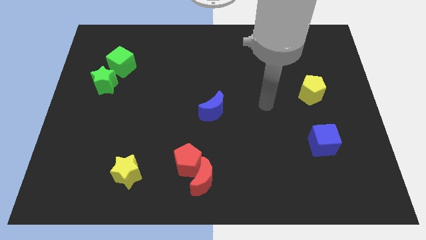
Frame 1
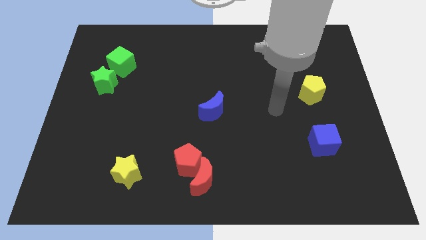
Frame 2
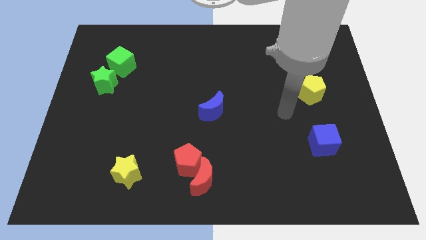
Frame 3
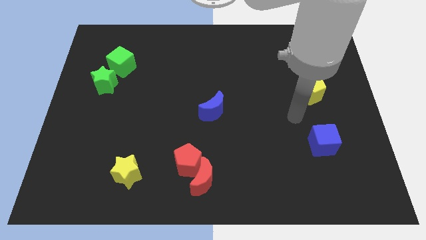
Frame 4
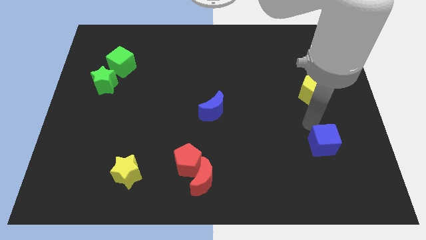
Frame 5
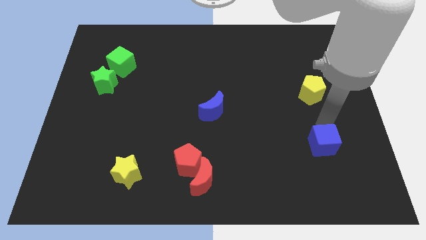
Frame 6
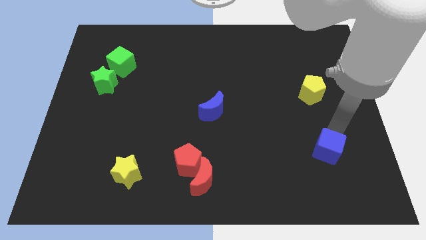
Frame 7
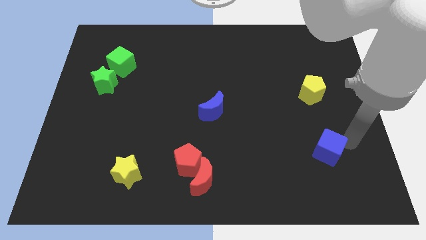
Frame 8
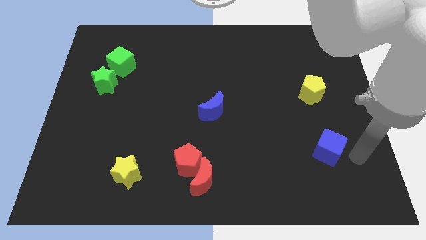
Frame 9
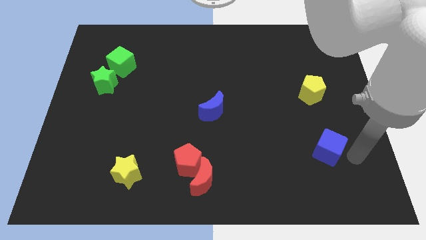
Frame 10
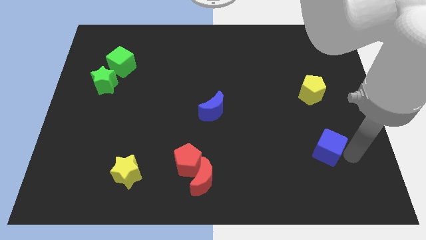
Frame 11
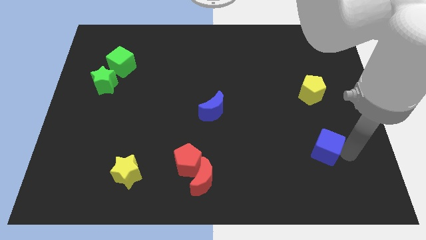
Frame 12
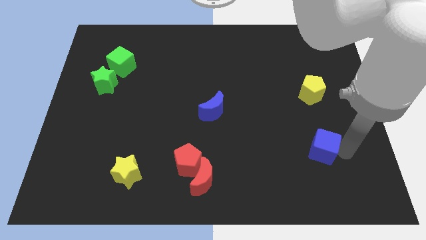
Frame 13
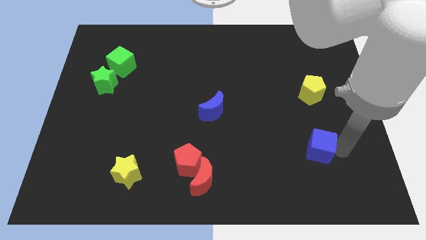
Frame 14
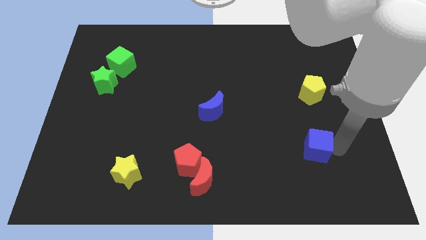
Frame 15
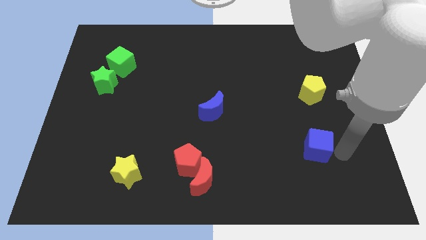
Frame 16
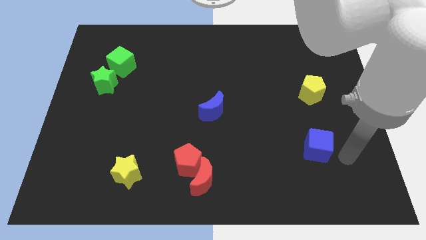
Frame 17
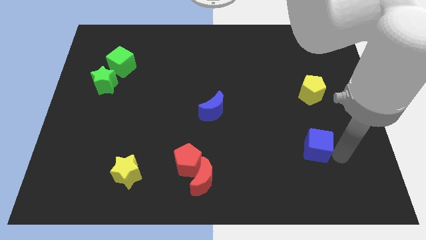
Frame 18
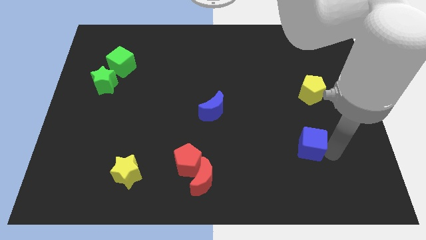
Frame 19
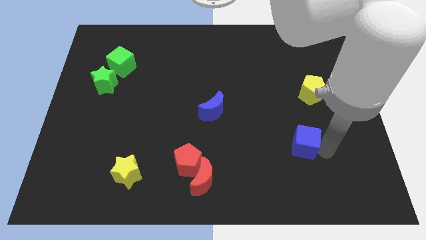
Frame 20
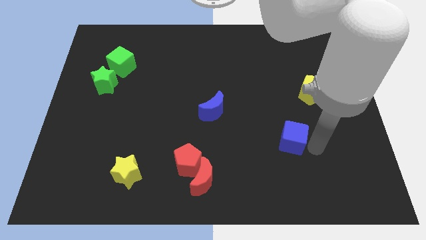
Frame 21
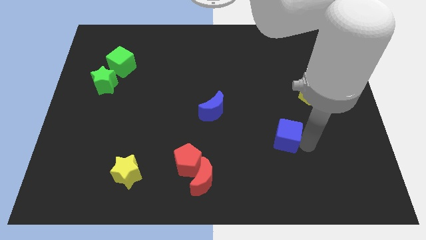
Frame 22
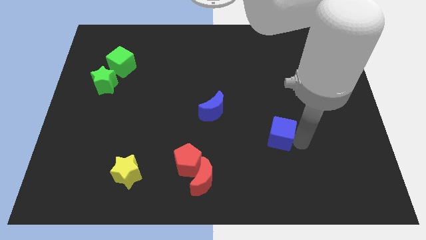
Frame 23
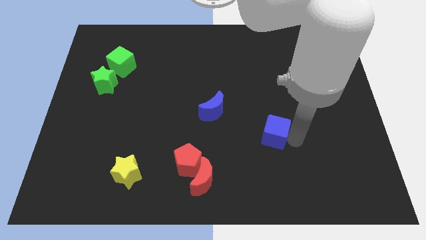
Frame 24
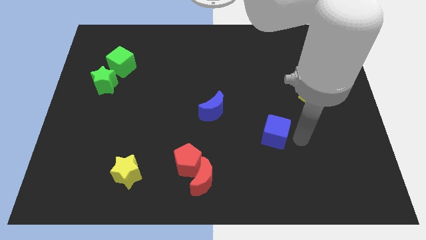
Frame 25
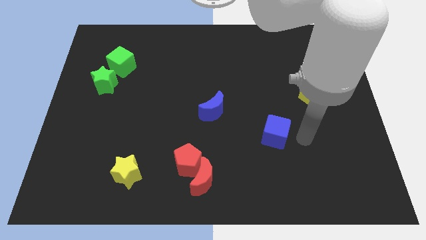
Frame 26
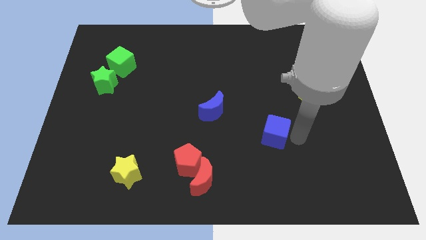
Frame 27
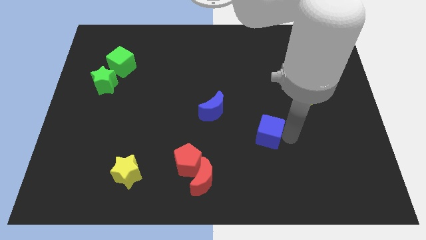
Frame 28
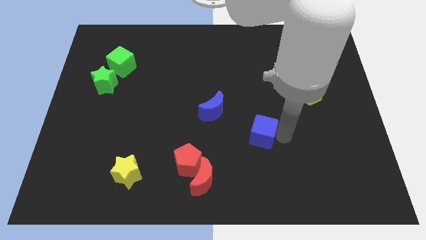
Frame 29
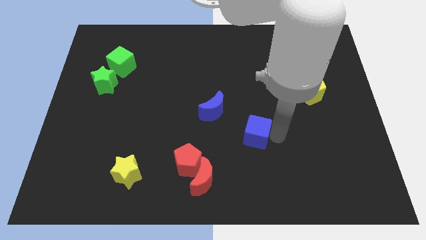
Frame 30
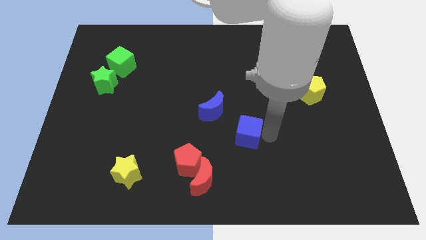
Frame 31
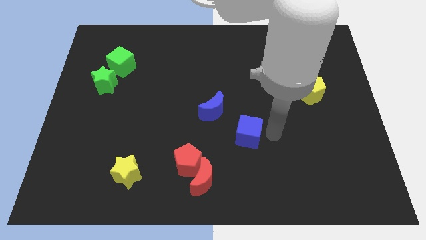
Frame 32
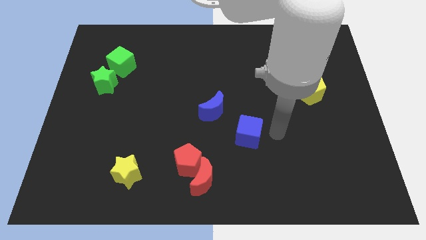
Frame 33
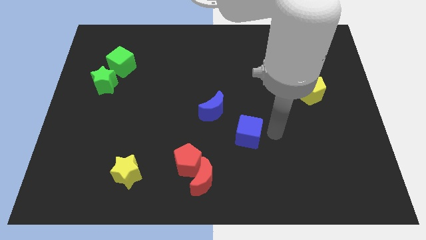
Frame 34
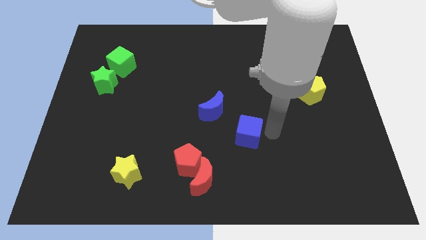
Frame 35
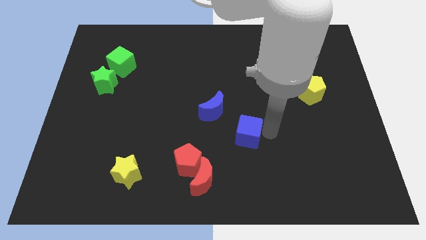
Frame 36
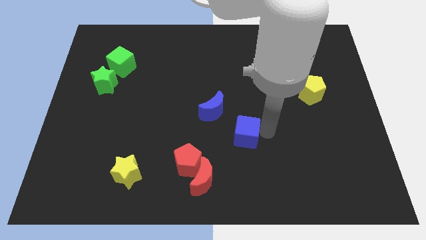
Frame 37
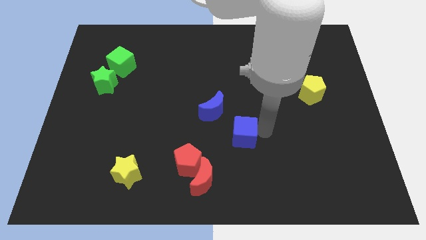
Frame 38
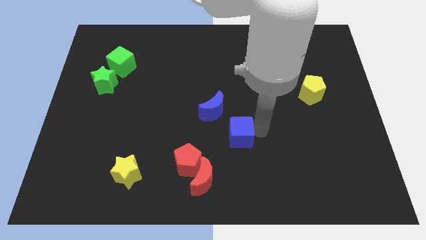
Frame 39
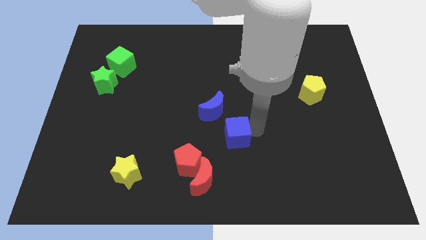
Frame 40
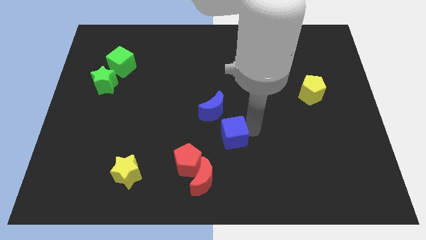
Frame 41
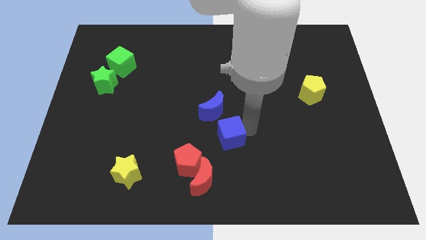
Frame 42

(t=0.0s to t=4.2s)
move the blue cube left

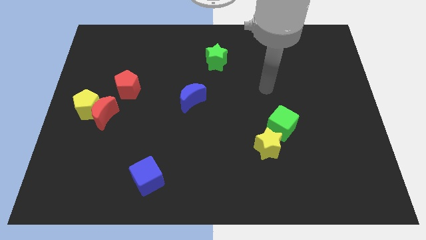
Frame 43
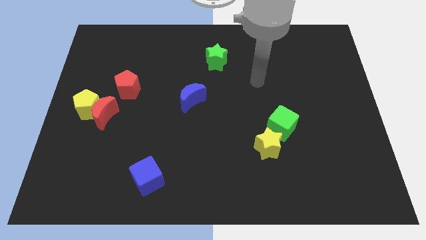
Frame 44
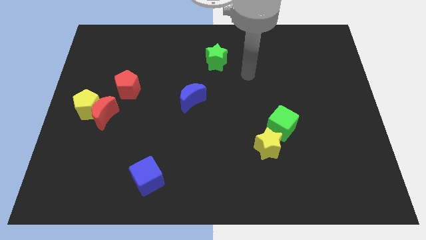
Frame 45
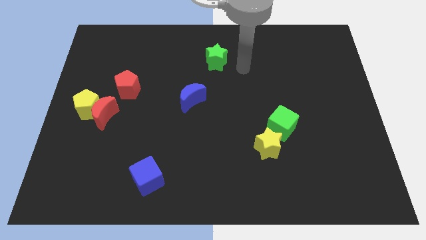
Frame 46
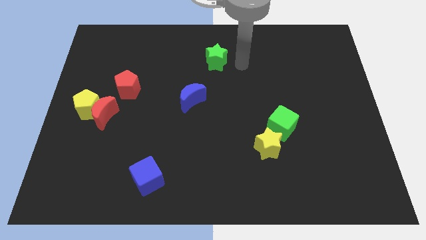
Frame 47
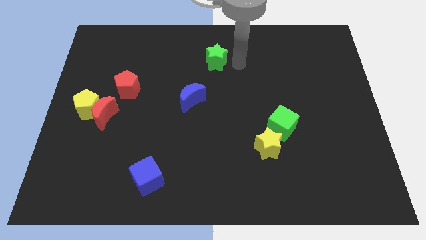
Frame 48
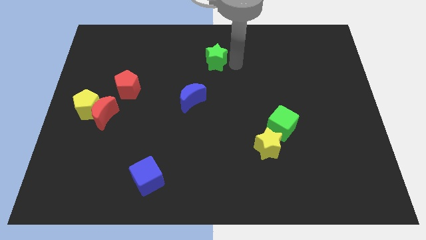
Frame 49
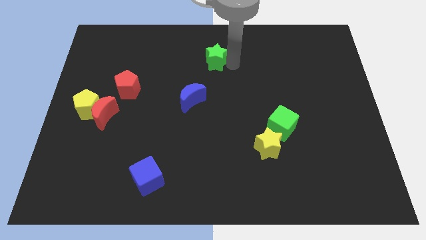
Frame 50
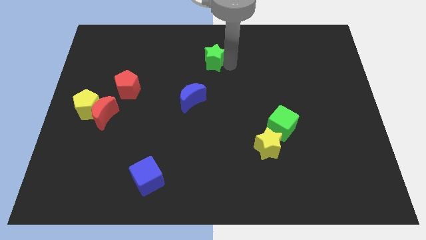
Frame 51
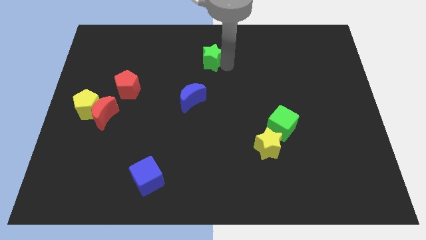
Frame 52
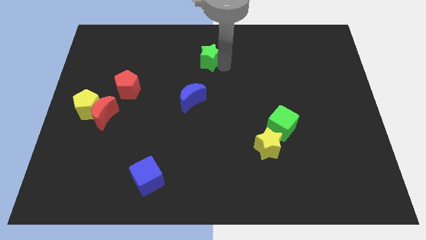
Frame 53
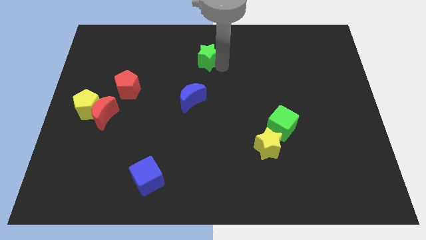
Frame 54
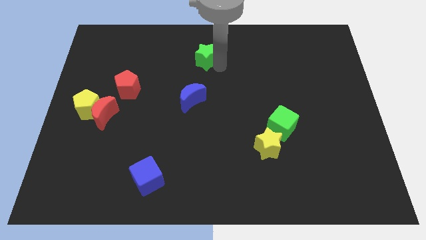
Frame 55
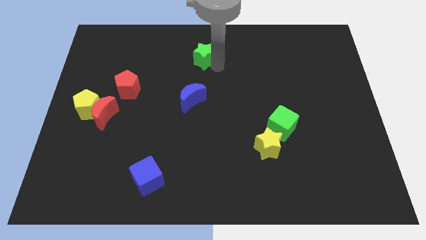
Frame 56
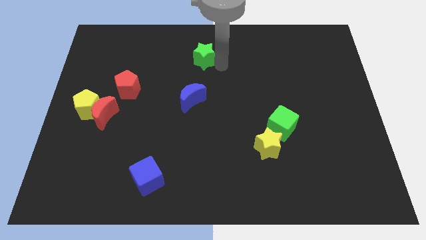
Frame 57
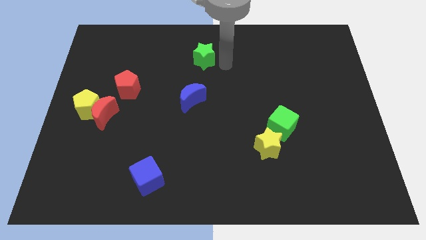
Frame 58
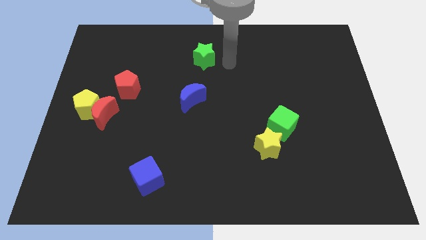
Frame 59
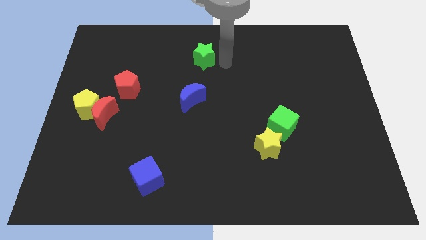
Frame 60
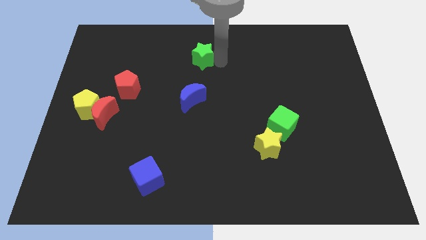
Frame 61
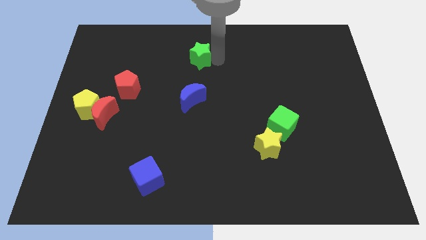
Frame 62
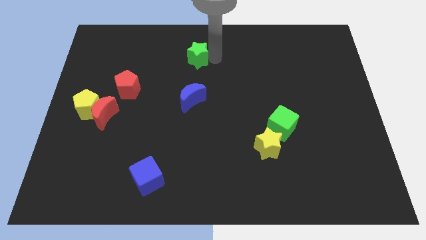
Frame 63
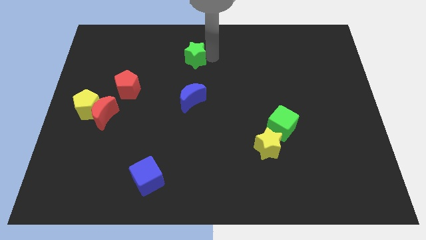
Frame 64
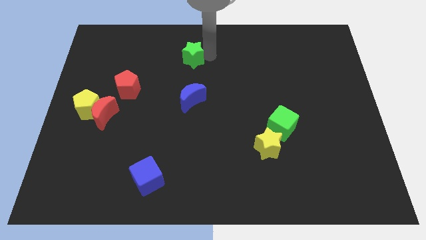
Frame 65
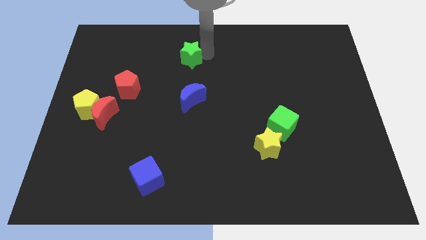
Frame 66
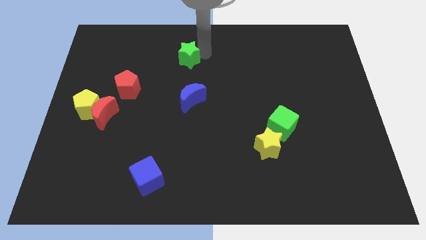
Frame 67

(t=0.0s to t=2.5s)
slide the green star a little left

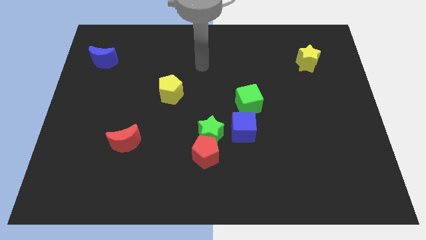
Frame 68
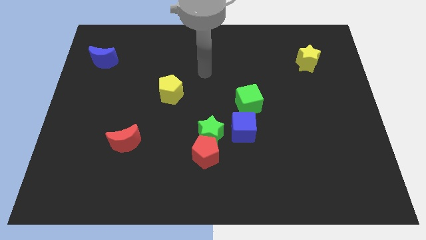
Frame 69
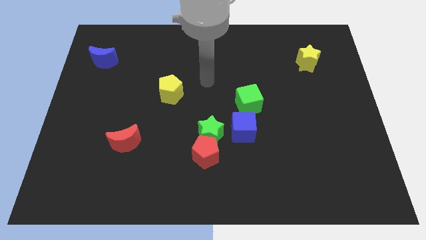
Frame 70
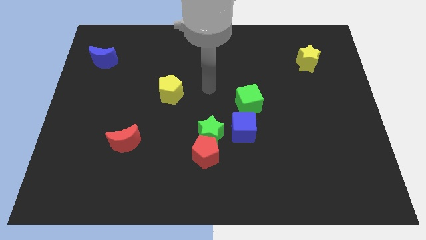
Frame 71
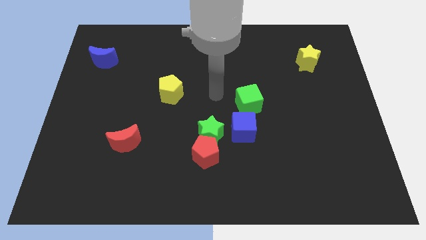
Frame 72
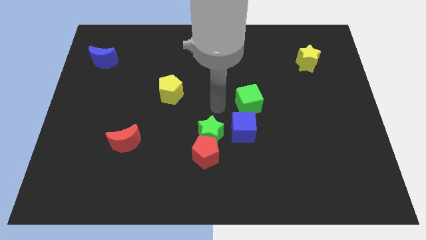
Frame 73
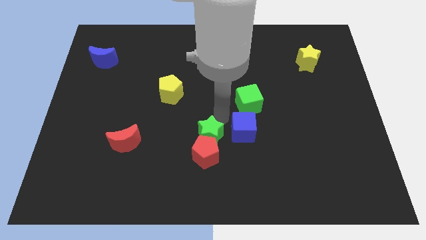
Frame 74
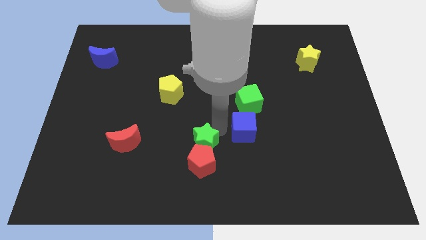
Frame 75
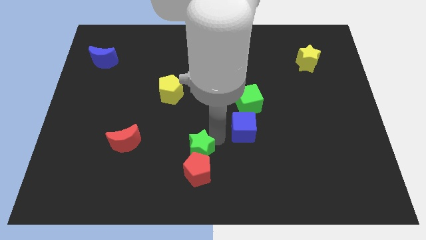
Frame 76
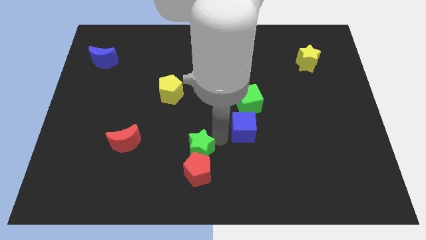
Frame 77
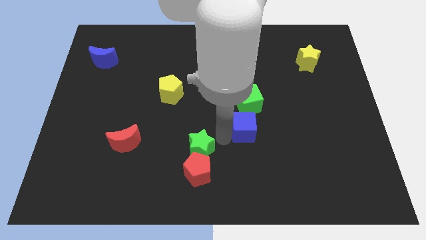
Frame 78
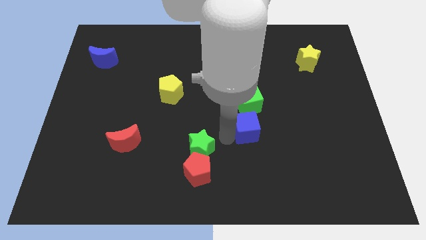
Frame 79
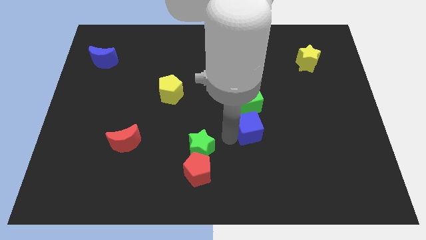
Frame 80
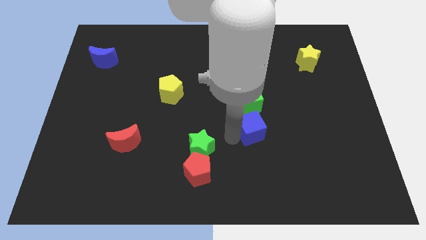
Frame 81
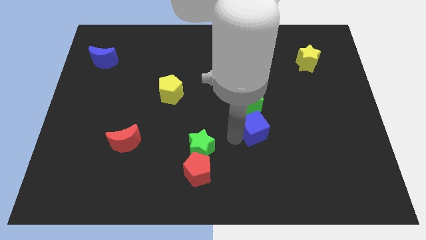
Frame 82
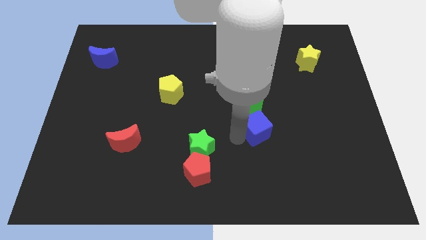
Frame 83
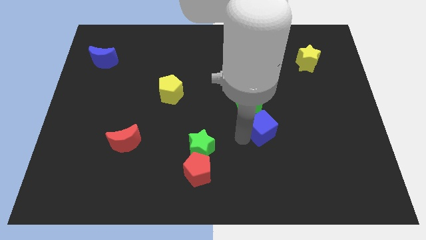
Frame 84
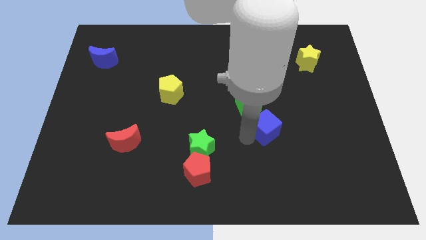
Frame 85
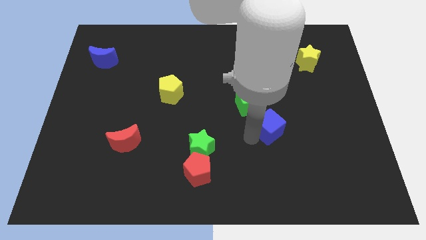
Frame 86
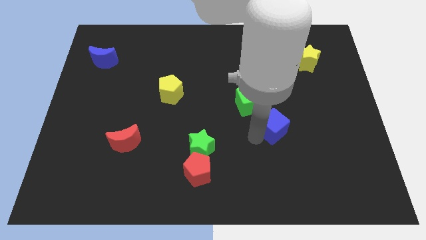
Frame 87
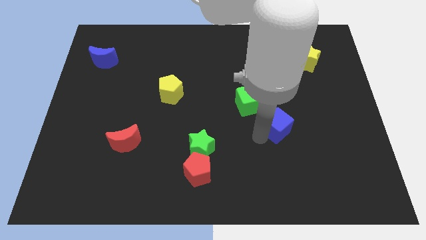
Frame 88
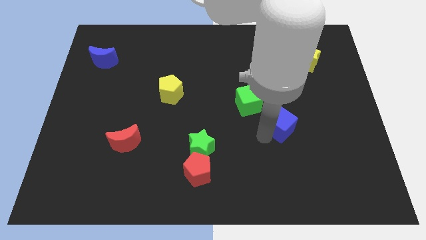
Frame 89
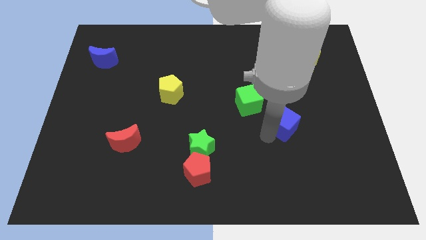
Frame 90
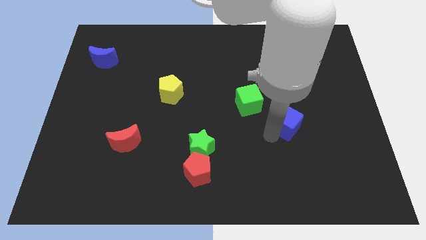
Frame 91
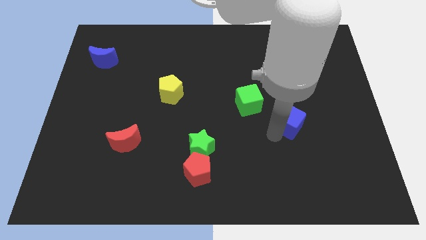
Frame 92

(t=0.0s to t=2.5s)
slightly push the blue cube upwards and right
